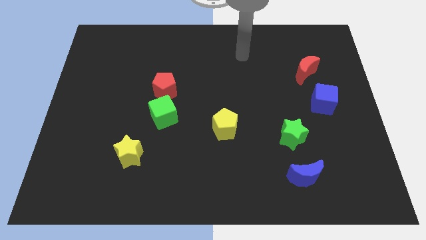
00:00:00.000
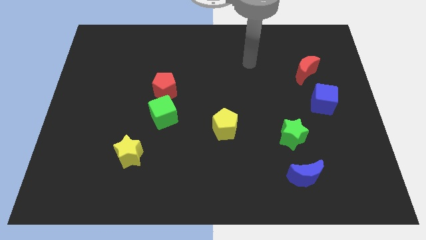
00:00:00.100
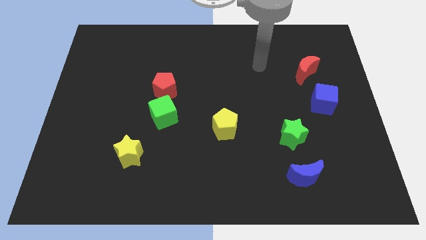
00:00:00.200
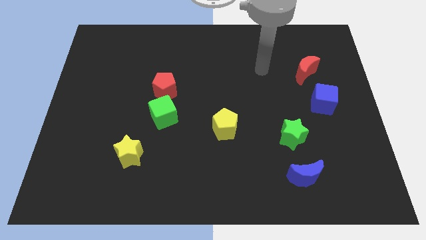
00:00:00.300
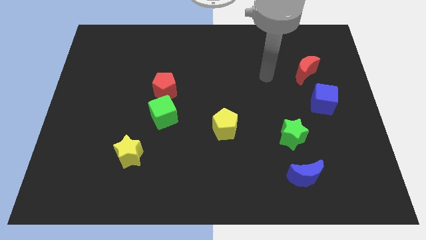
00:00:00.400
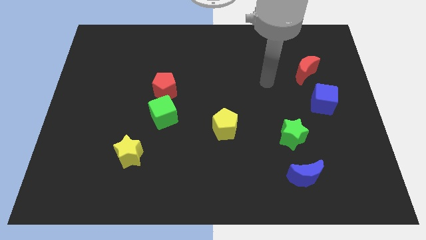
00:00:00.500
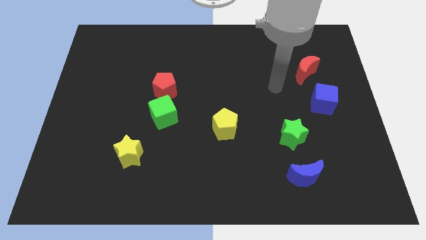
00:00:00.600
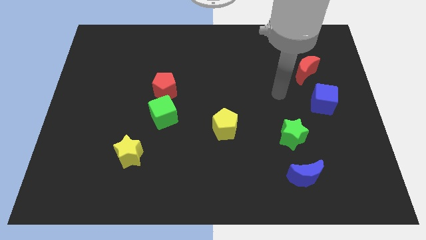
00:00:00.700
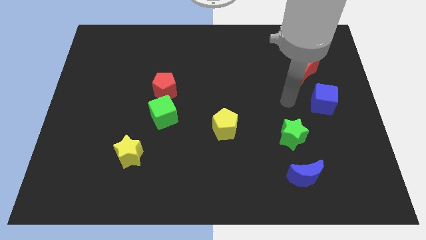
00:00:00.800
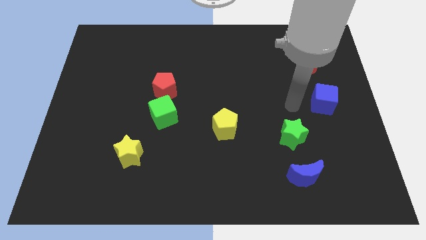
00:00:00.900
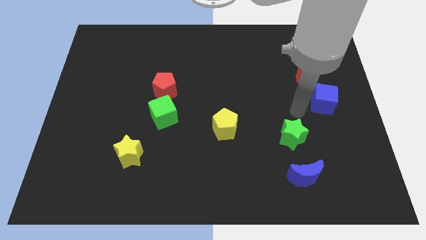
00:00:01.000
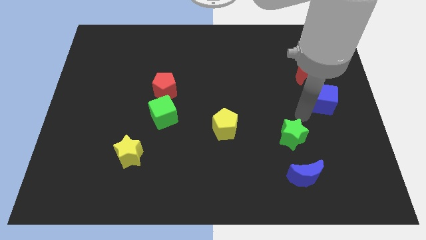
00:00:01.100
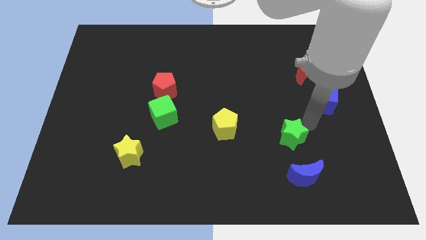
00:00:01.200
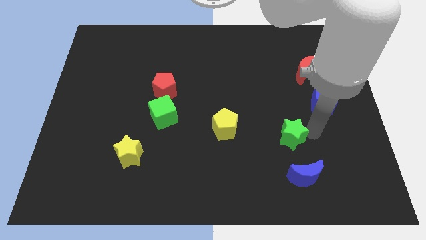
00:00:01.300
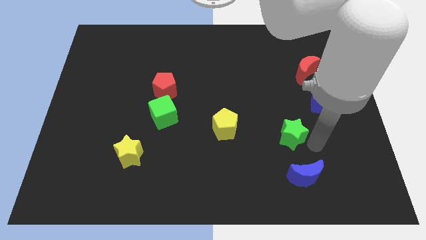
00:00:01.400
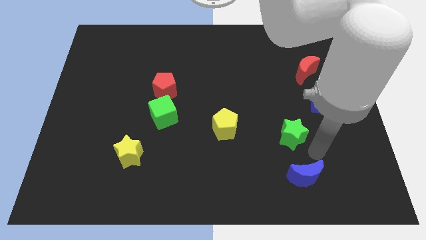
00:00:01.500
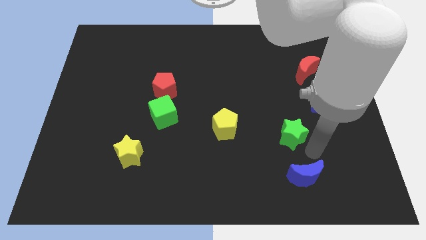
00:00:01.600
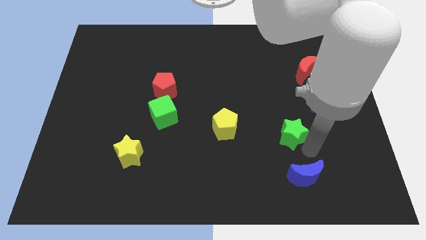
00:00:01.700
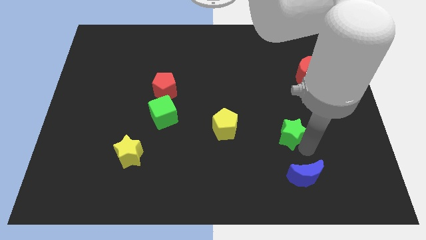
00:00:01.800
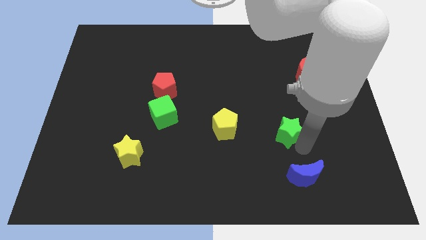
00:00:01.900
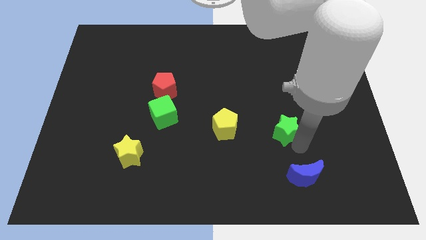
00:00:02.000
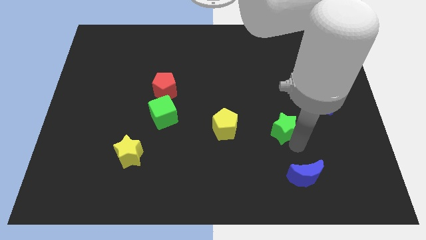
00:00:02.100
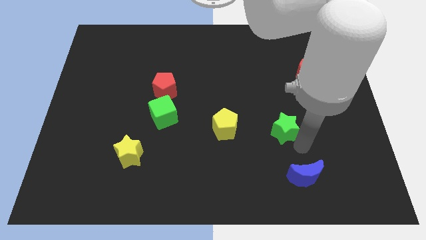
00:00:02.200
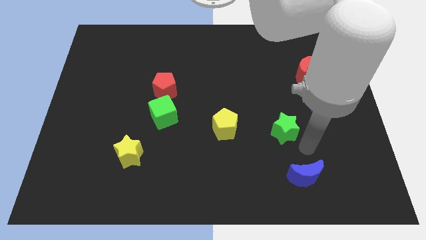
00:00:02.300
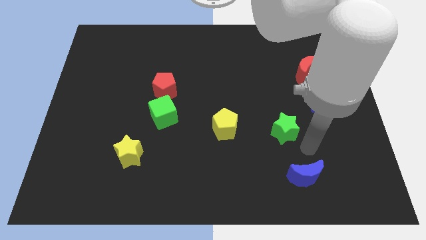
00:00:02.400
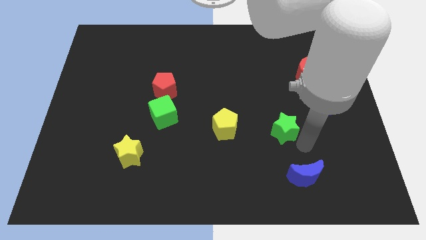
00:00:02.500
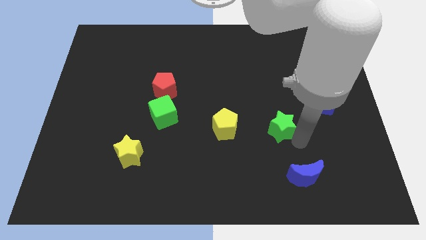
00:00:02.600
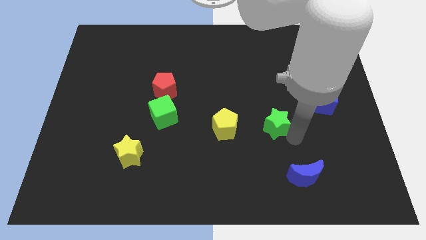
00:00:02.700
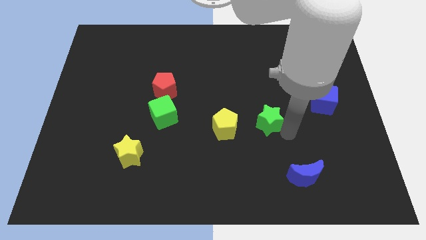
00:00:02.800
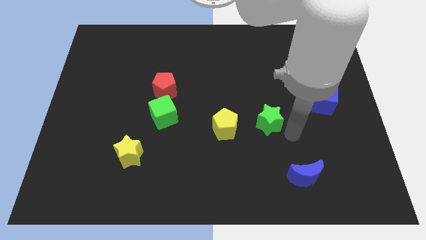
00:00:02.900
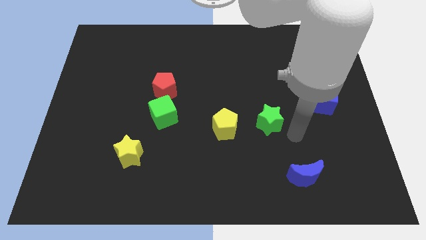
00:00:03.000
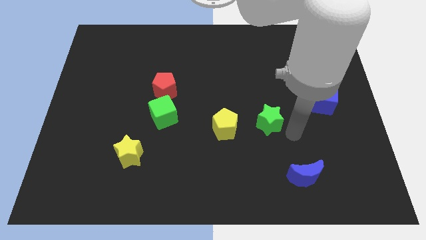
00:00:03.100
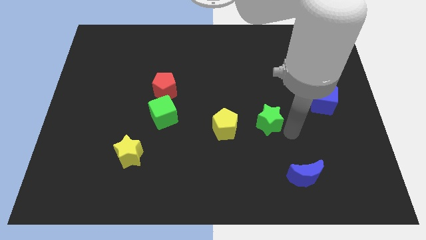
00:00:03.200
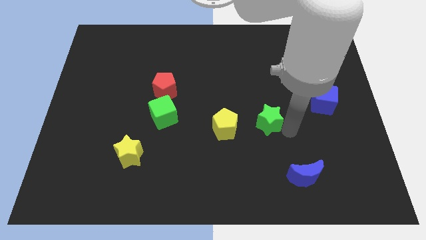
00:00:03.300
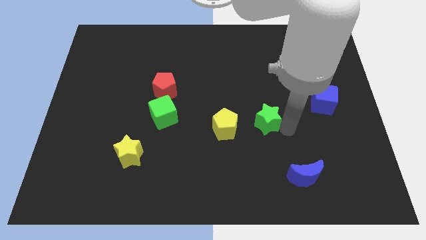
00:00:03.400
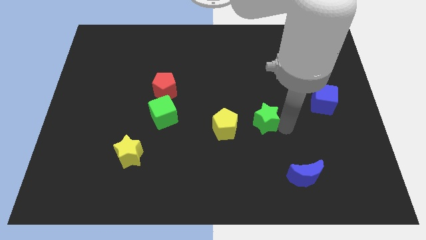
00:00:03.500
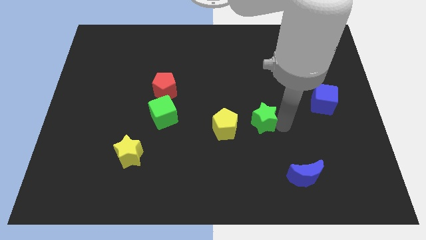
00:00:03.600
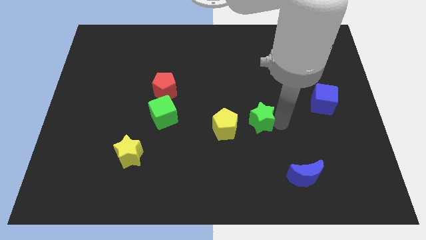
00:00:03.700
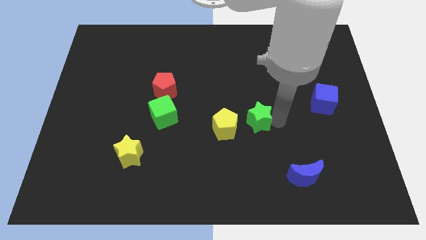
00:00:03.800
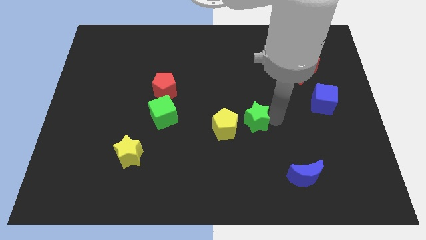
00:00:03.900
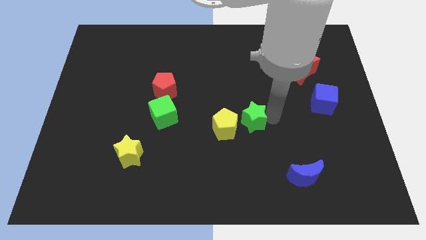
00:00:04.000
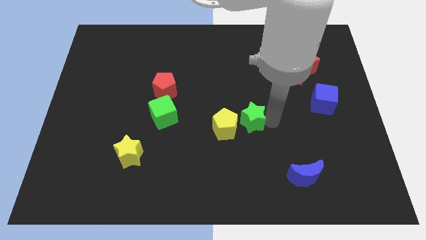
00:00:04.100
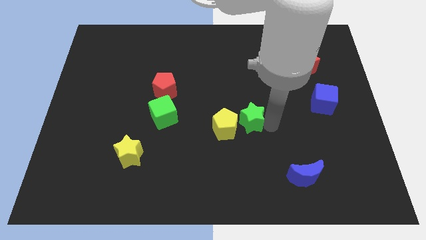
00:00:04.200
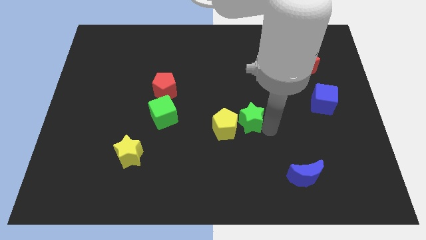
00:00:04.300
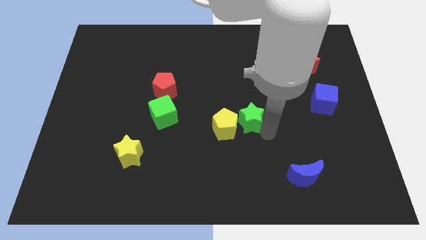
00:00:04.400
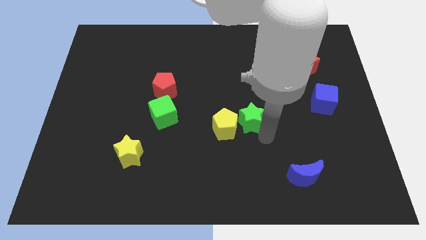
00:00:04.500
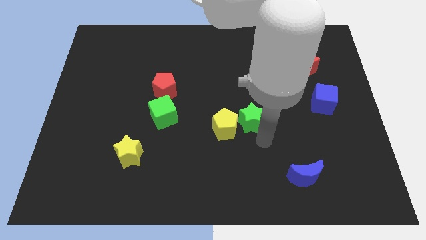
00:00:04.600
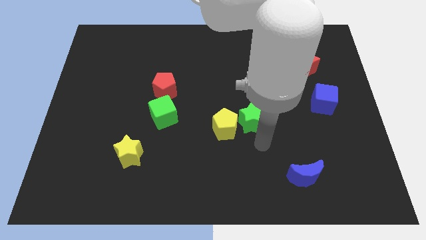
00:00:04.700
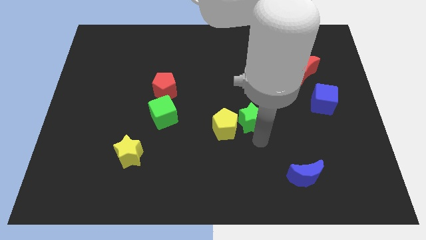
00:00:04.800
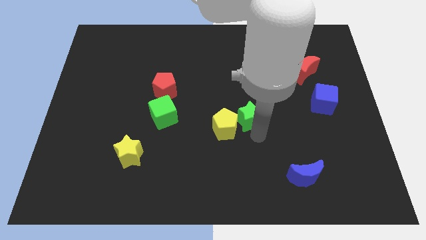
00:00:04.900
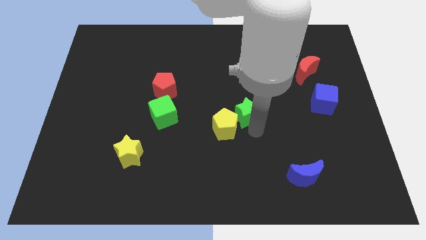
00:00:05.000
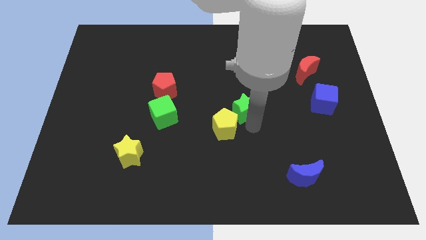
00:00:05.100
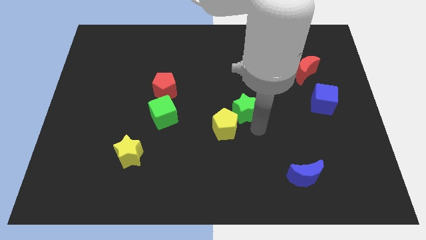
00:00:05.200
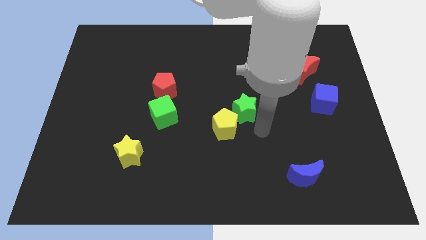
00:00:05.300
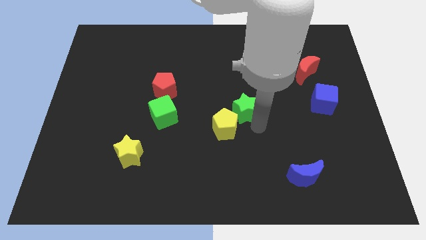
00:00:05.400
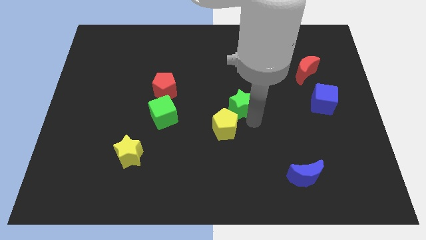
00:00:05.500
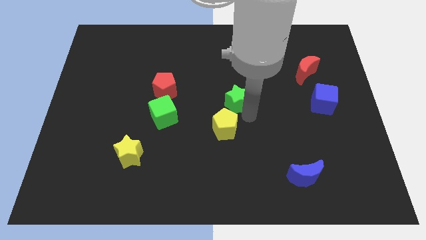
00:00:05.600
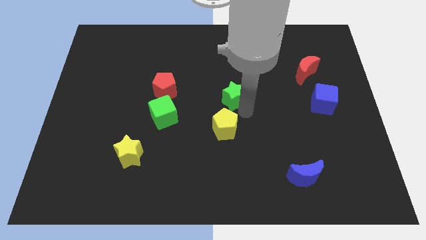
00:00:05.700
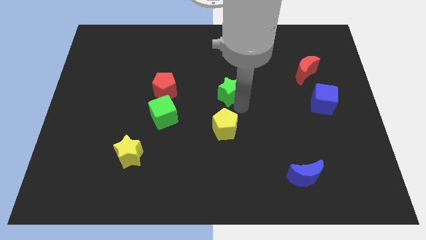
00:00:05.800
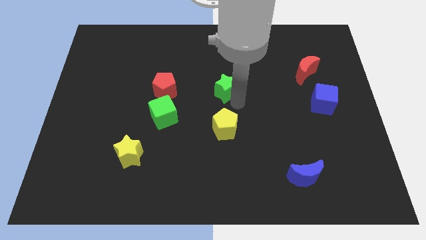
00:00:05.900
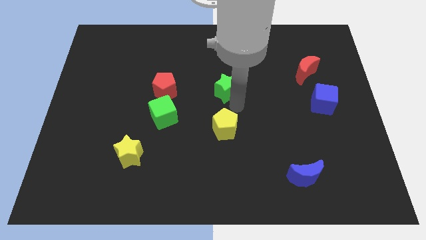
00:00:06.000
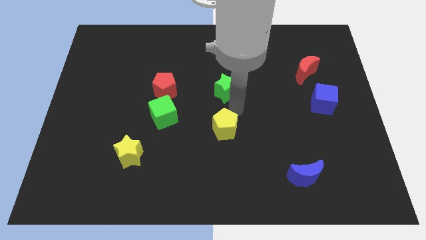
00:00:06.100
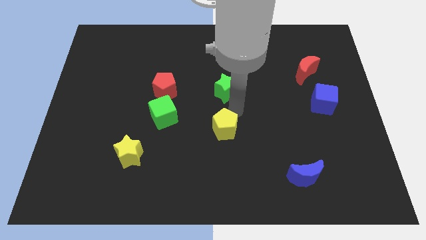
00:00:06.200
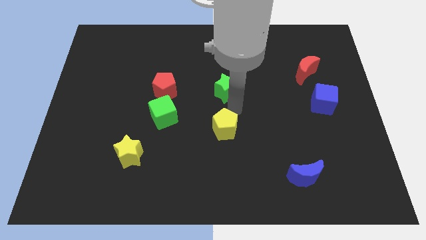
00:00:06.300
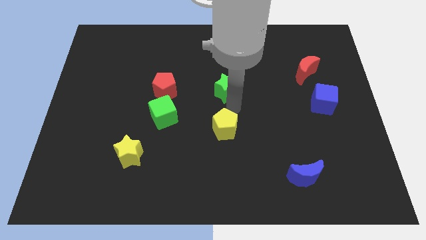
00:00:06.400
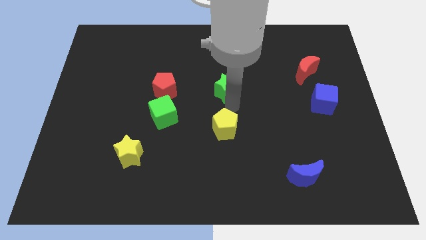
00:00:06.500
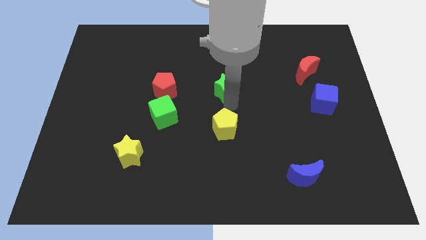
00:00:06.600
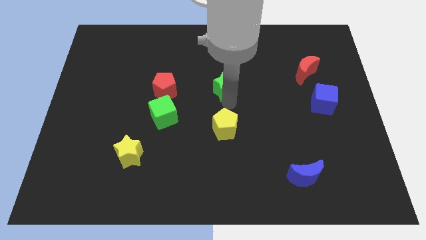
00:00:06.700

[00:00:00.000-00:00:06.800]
push the green star upwards and then left
